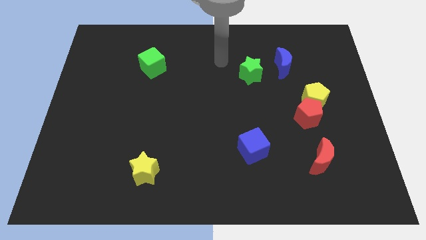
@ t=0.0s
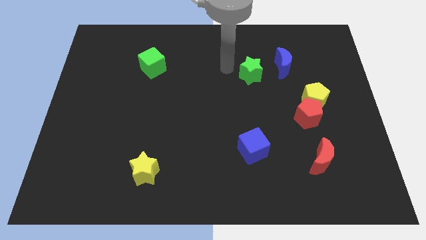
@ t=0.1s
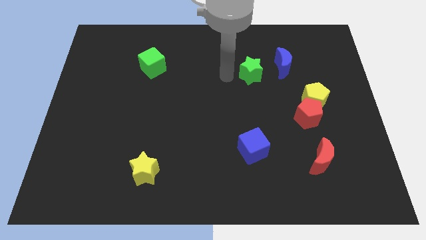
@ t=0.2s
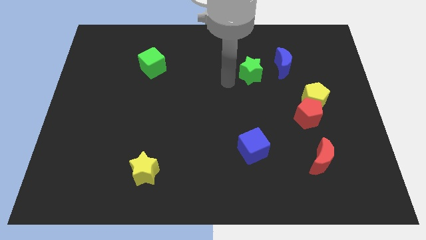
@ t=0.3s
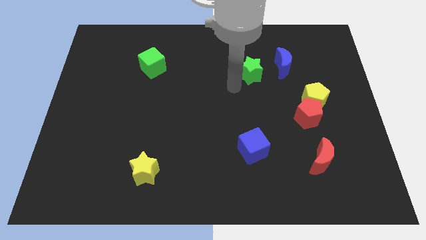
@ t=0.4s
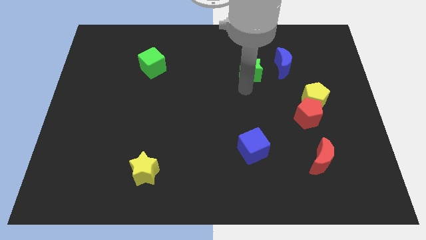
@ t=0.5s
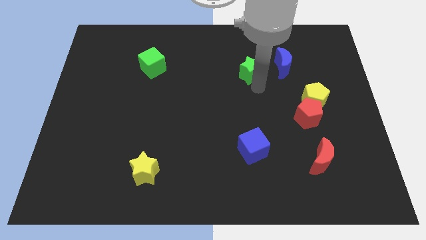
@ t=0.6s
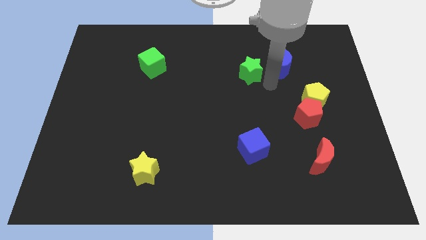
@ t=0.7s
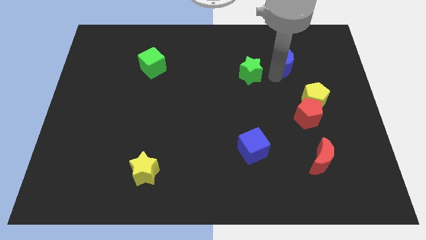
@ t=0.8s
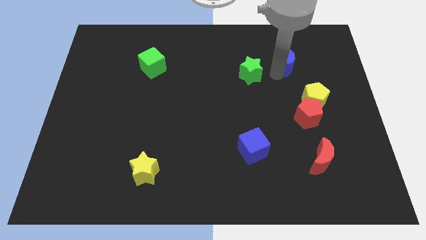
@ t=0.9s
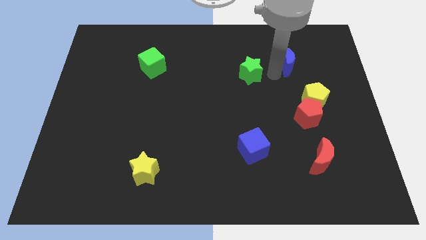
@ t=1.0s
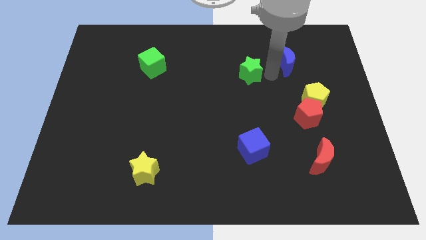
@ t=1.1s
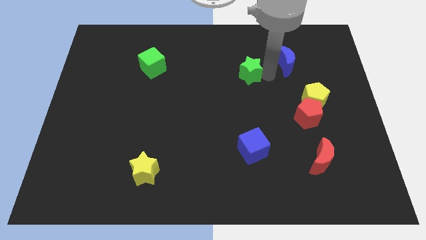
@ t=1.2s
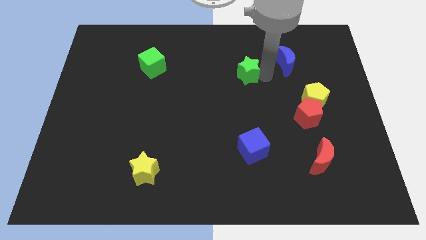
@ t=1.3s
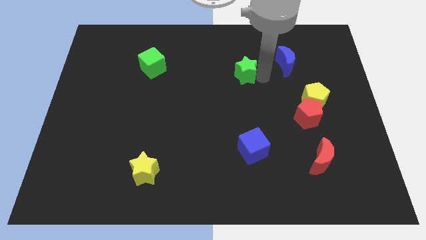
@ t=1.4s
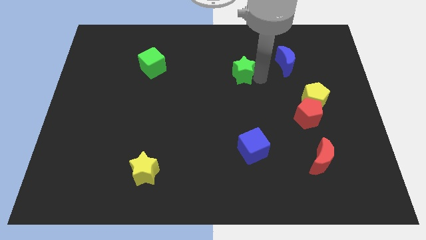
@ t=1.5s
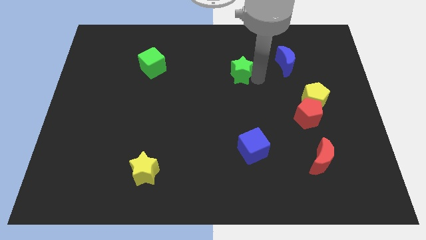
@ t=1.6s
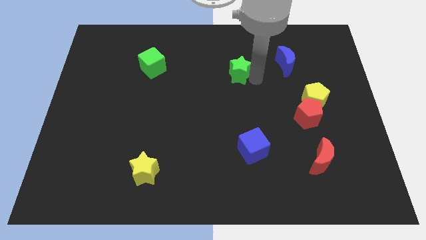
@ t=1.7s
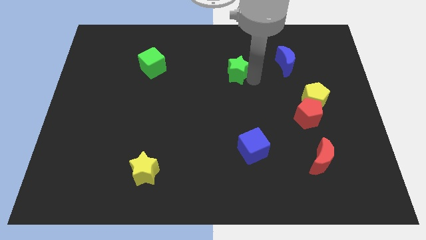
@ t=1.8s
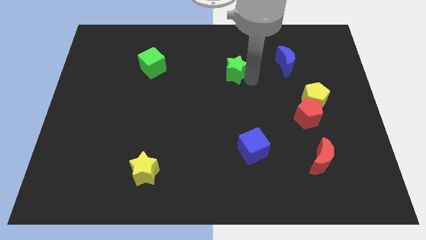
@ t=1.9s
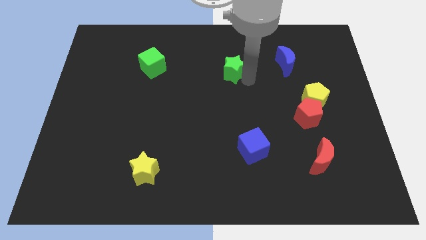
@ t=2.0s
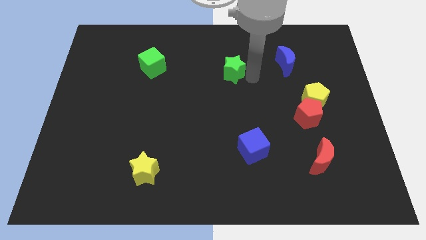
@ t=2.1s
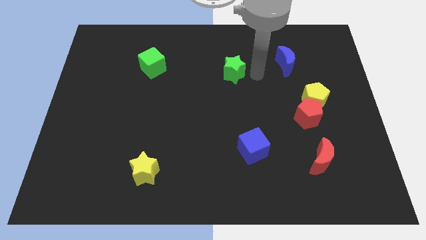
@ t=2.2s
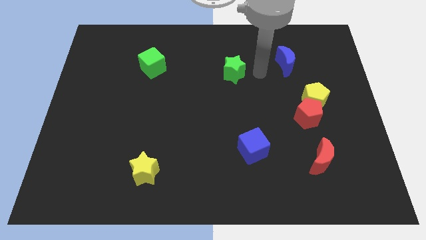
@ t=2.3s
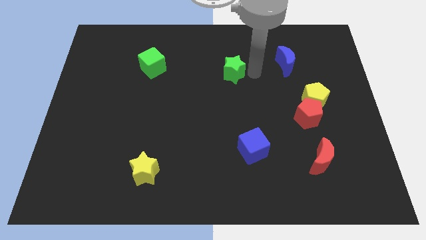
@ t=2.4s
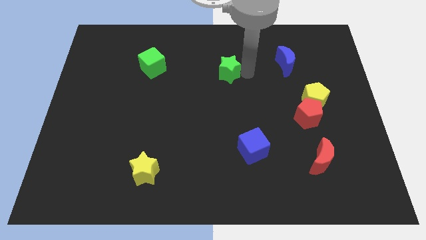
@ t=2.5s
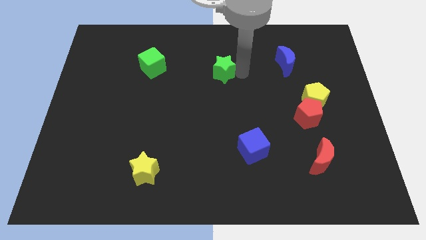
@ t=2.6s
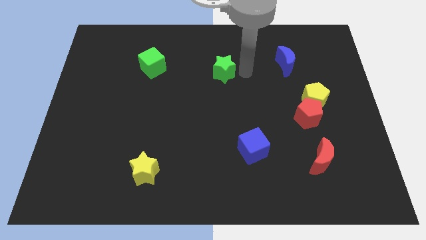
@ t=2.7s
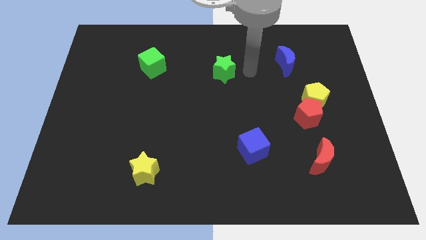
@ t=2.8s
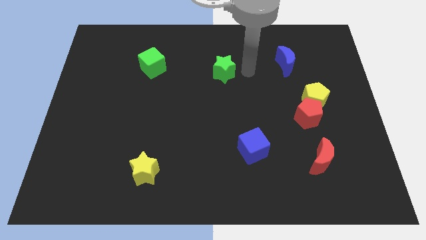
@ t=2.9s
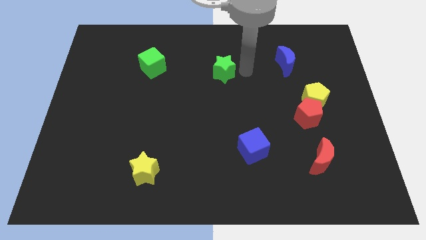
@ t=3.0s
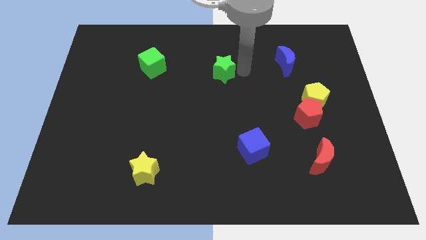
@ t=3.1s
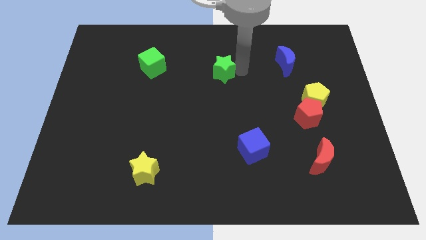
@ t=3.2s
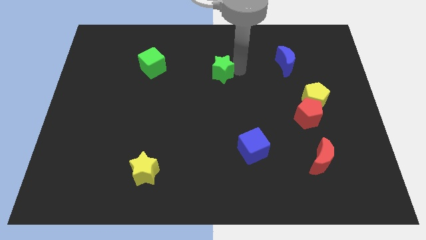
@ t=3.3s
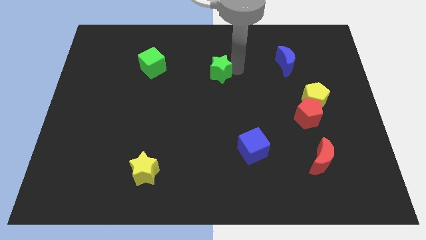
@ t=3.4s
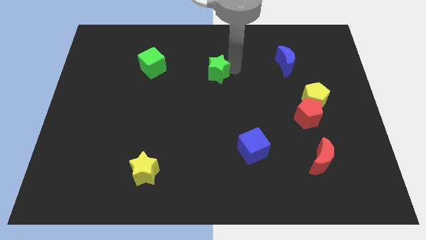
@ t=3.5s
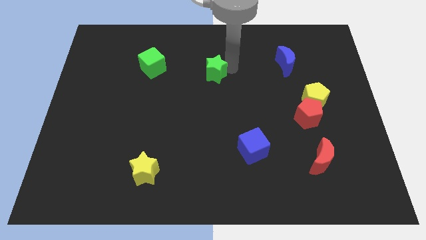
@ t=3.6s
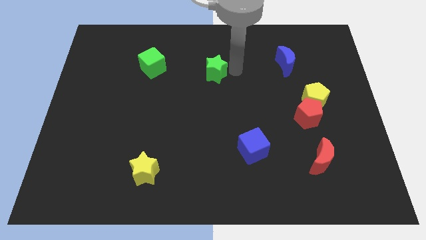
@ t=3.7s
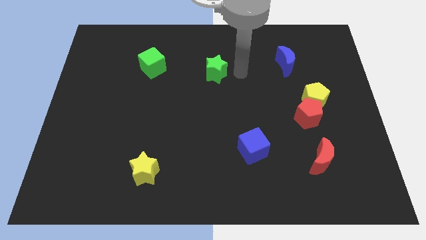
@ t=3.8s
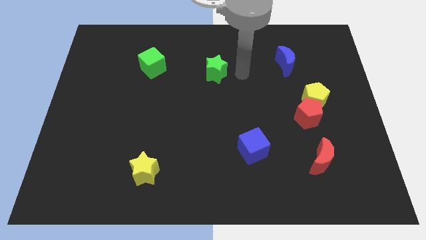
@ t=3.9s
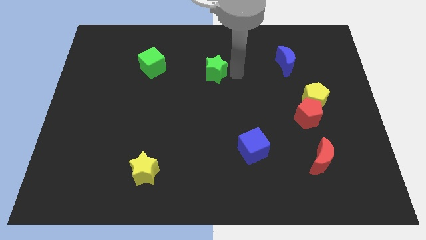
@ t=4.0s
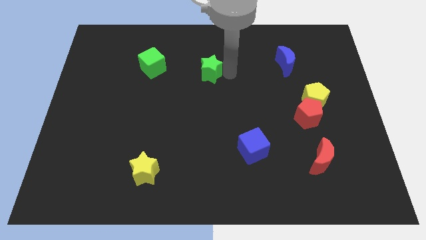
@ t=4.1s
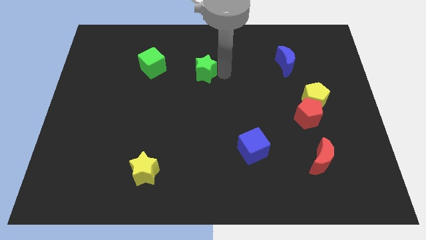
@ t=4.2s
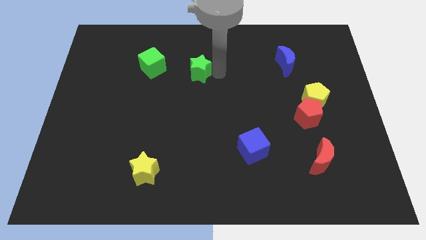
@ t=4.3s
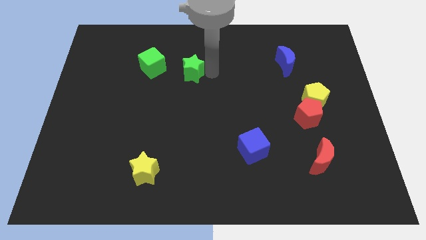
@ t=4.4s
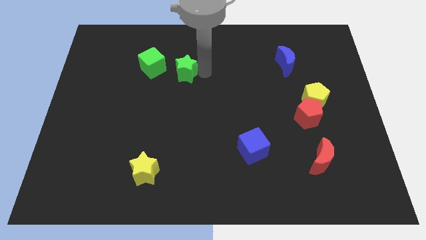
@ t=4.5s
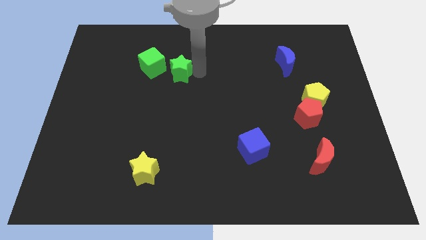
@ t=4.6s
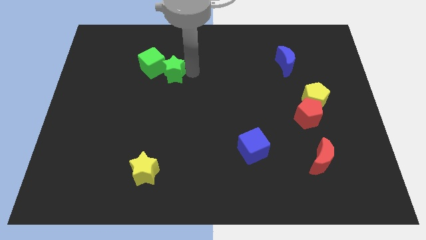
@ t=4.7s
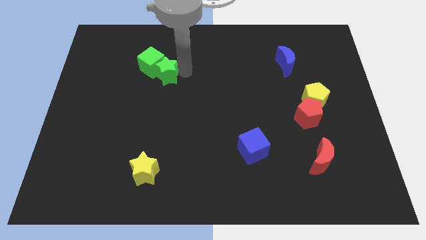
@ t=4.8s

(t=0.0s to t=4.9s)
slide the green star left

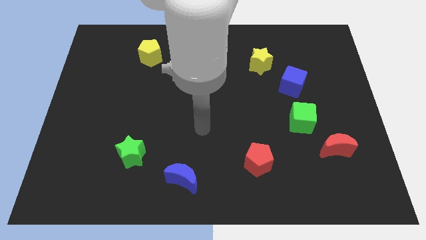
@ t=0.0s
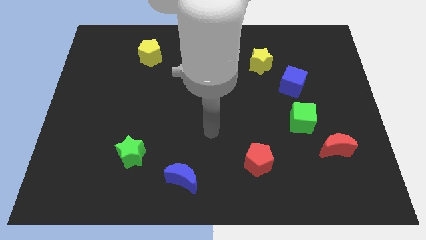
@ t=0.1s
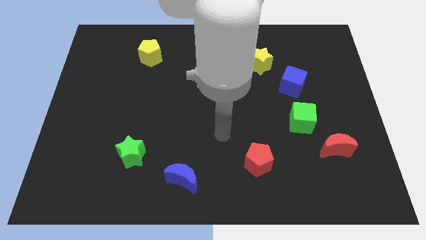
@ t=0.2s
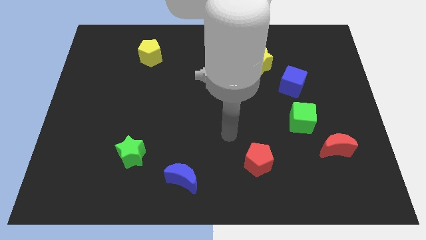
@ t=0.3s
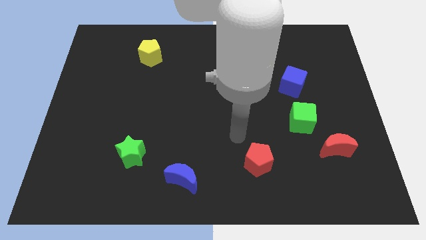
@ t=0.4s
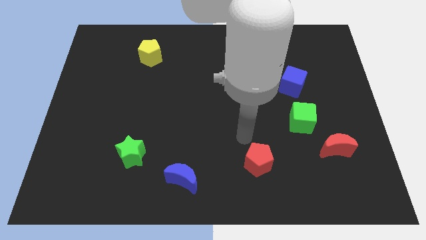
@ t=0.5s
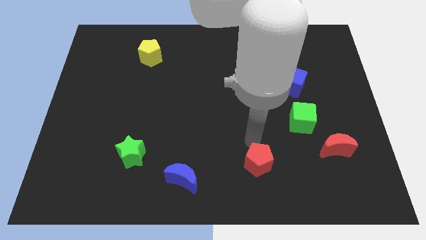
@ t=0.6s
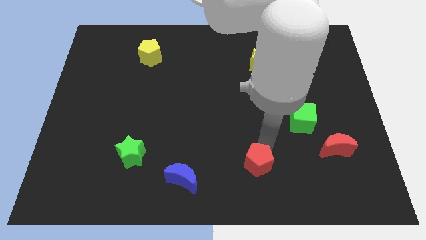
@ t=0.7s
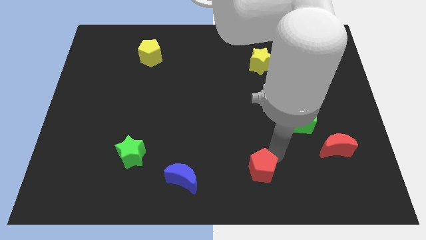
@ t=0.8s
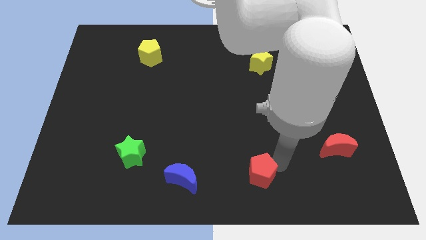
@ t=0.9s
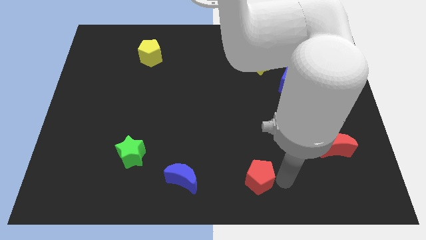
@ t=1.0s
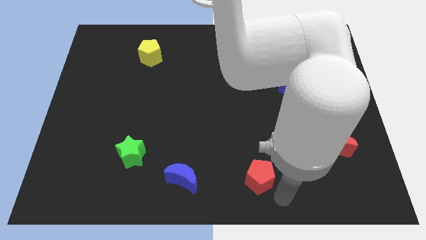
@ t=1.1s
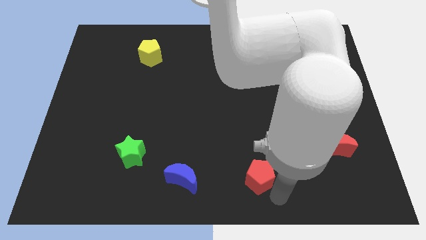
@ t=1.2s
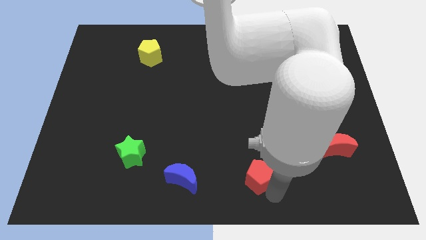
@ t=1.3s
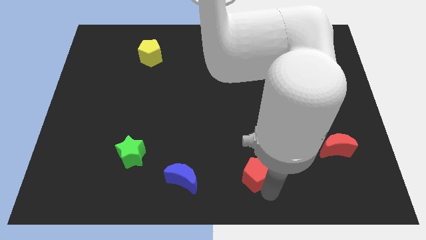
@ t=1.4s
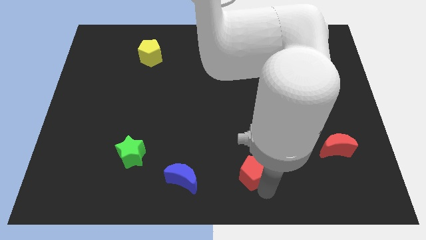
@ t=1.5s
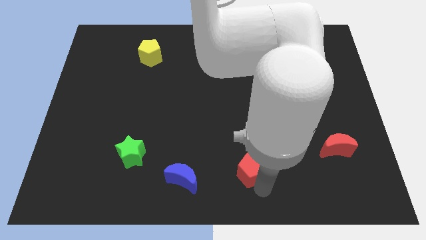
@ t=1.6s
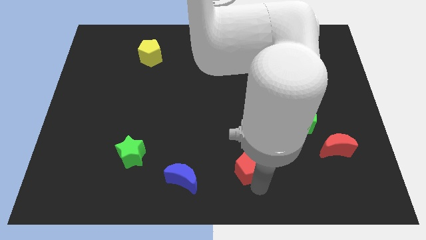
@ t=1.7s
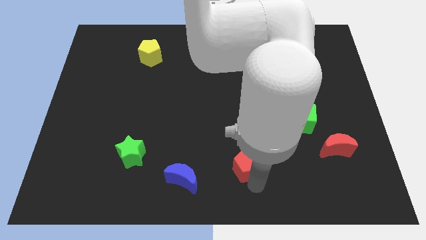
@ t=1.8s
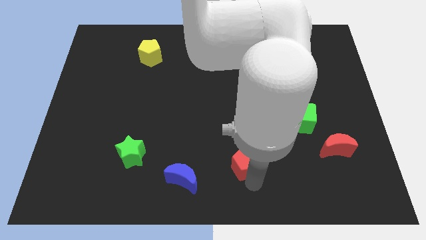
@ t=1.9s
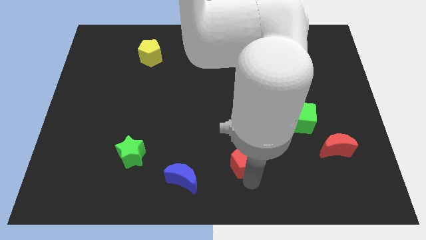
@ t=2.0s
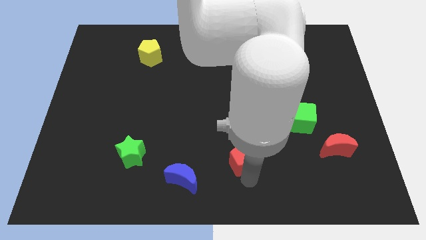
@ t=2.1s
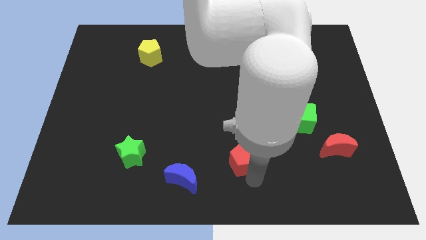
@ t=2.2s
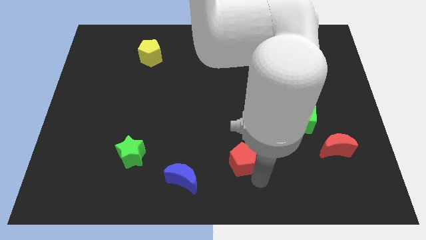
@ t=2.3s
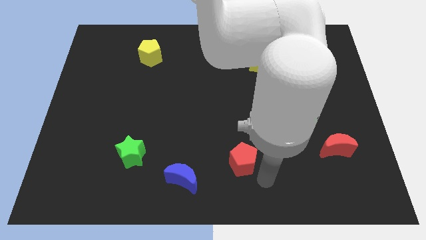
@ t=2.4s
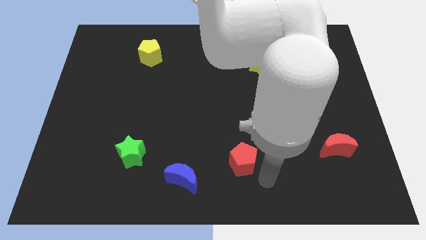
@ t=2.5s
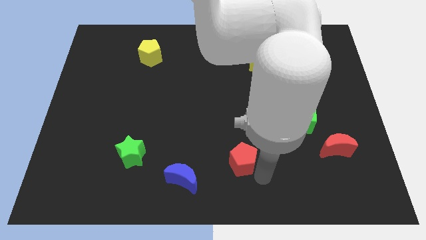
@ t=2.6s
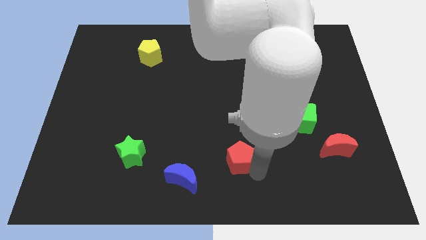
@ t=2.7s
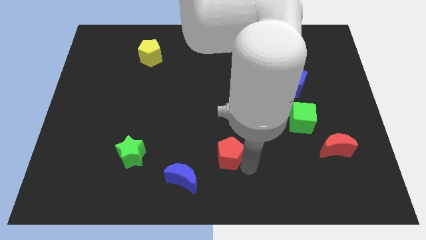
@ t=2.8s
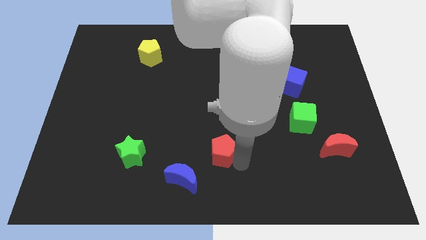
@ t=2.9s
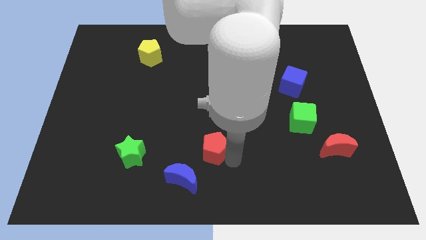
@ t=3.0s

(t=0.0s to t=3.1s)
slightly push the red pentagon upwards and left diagonally
